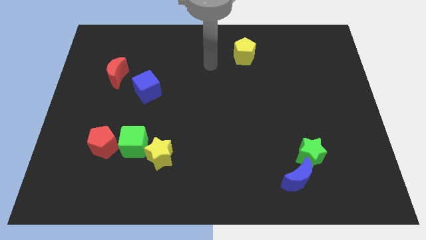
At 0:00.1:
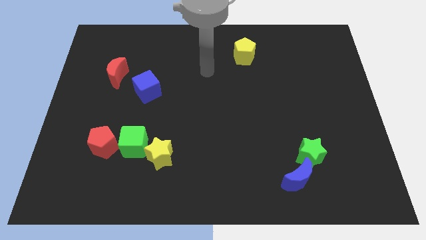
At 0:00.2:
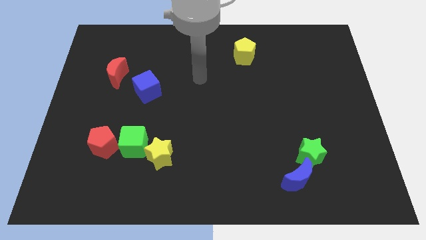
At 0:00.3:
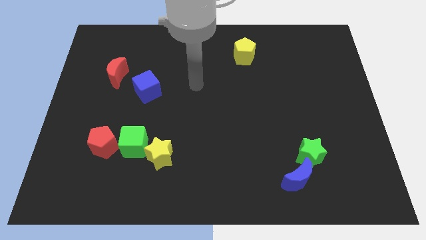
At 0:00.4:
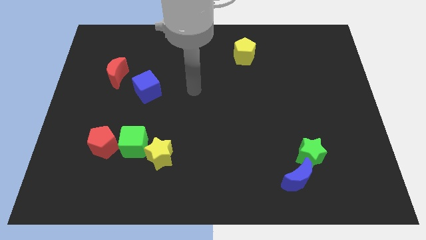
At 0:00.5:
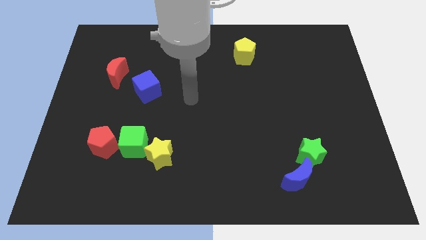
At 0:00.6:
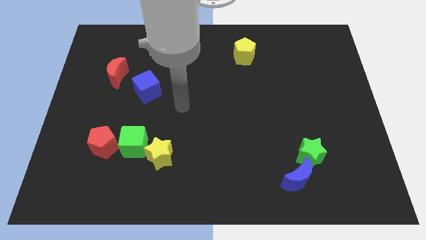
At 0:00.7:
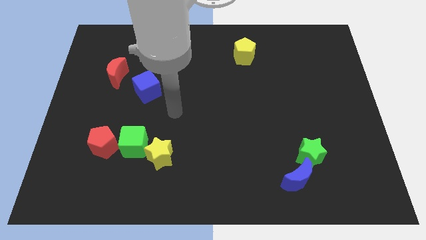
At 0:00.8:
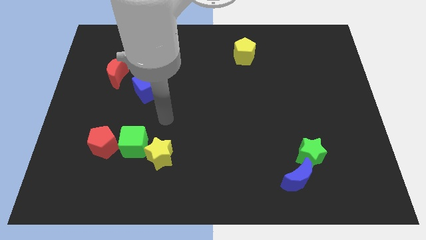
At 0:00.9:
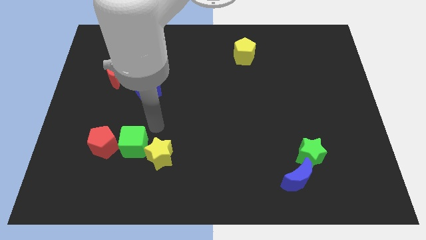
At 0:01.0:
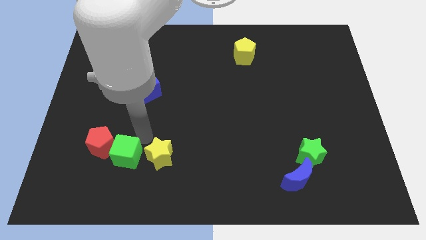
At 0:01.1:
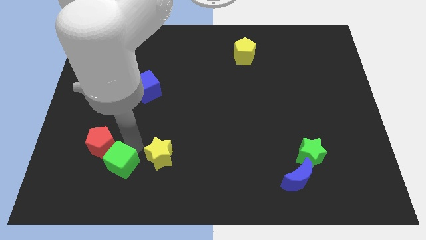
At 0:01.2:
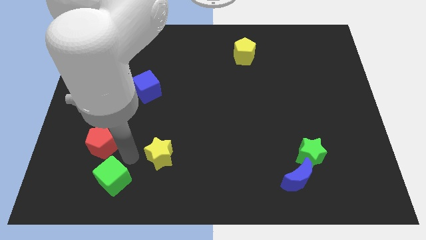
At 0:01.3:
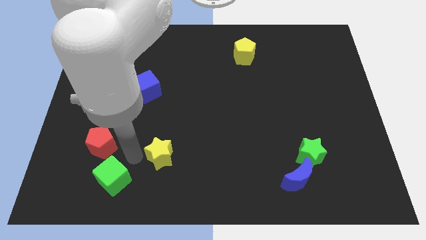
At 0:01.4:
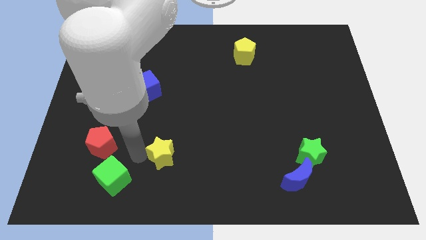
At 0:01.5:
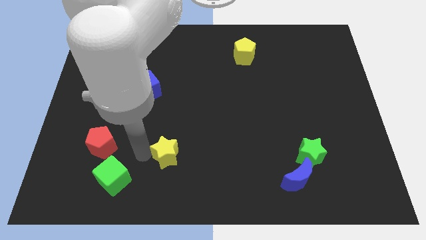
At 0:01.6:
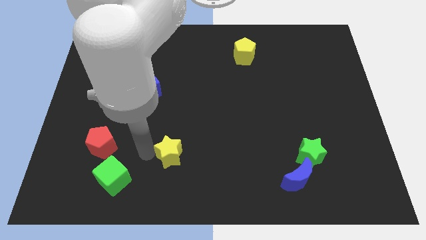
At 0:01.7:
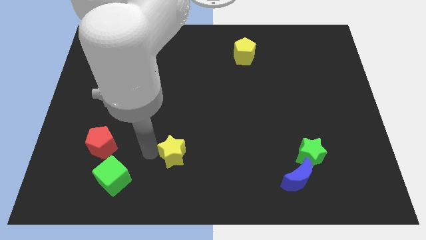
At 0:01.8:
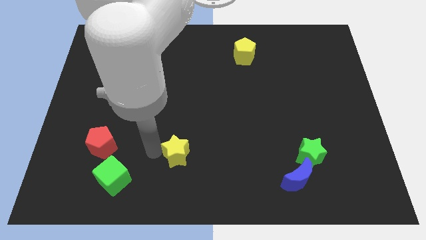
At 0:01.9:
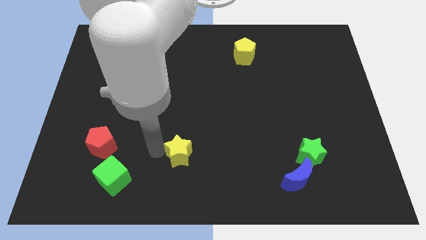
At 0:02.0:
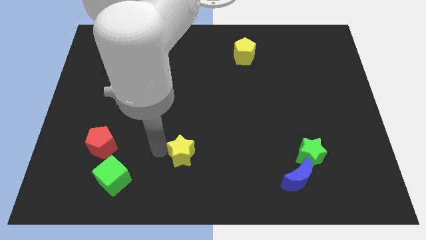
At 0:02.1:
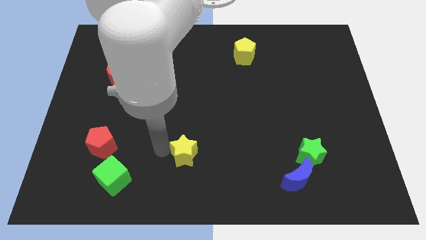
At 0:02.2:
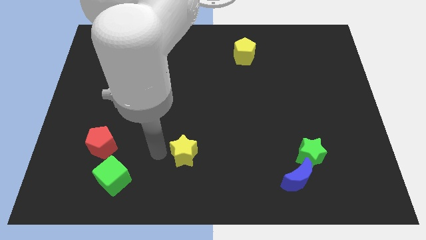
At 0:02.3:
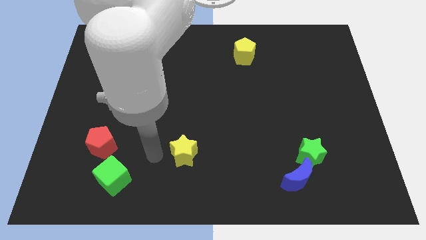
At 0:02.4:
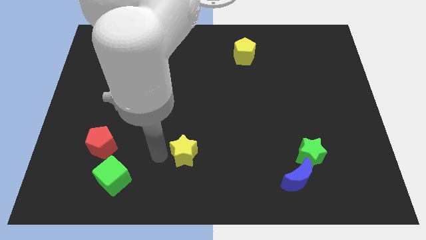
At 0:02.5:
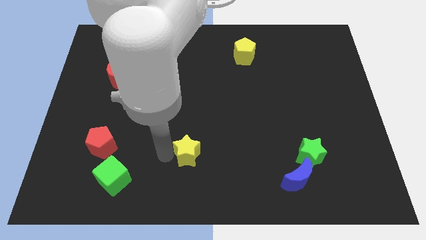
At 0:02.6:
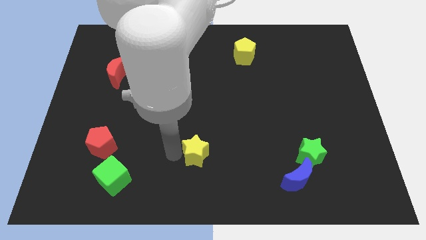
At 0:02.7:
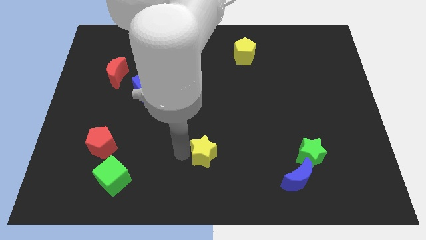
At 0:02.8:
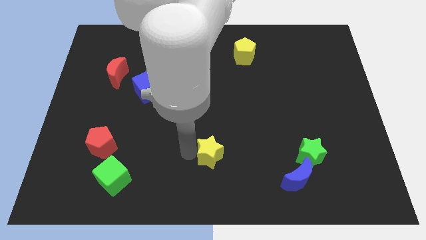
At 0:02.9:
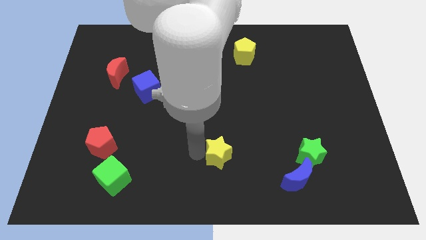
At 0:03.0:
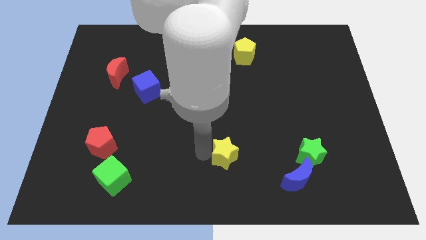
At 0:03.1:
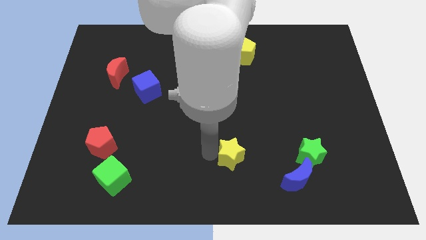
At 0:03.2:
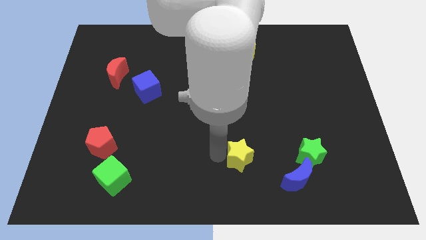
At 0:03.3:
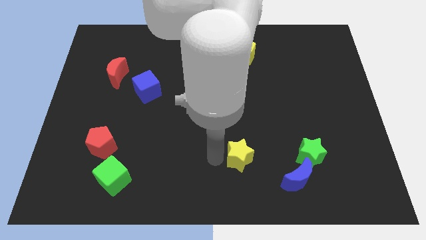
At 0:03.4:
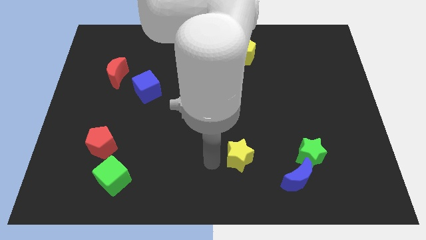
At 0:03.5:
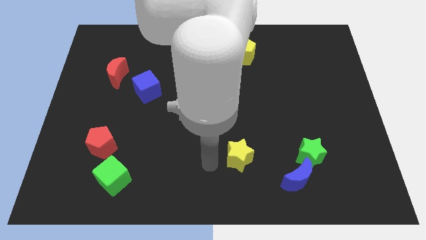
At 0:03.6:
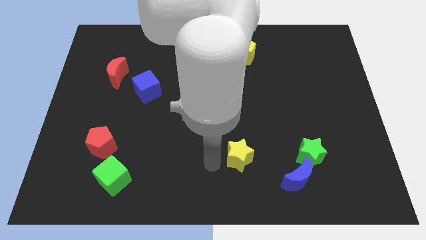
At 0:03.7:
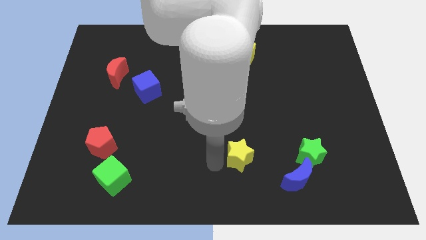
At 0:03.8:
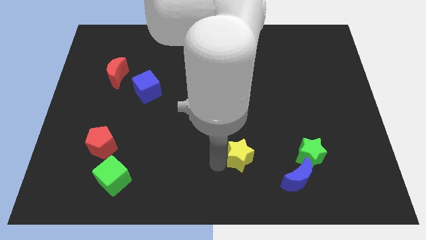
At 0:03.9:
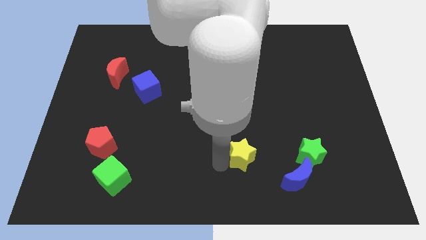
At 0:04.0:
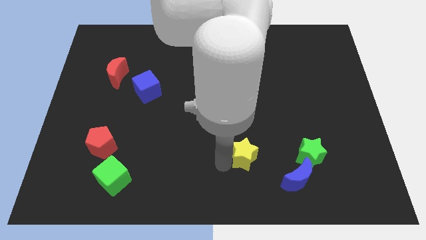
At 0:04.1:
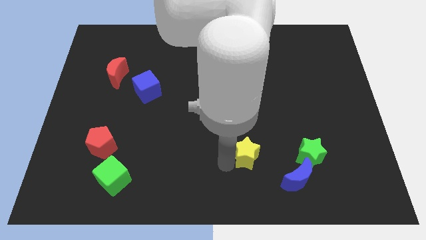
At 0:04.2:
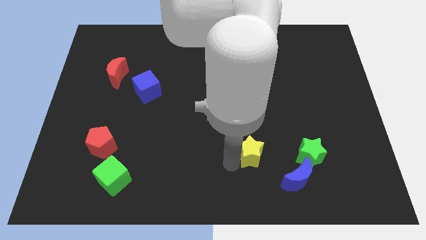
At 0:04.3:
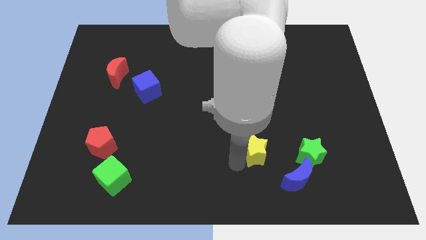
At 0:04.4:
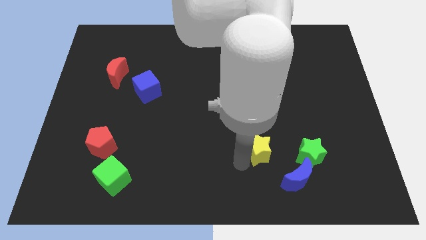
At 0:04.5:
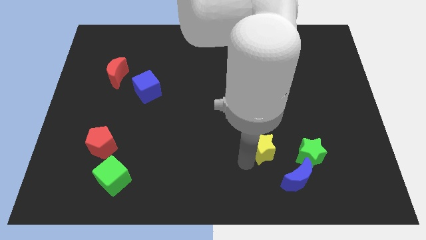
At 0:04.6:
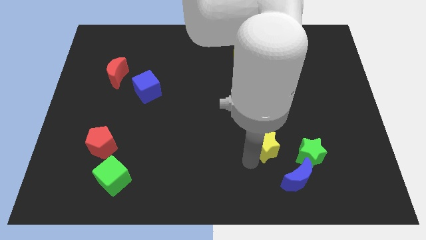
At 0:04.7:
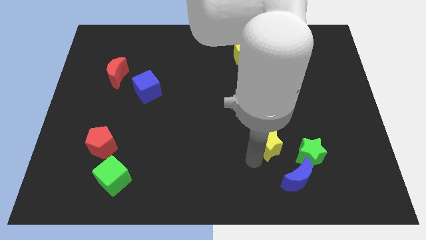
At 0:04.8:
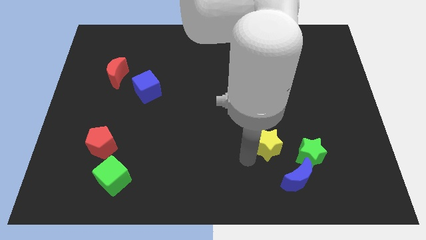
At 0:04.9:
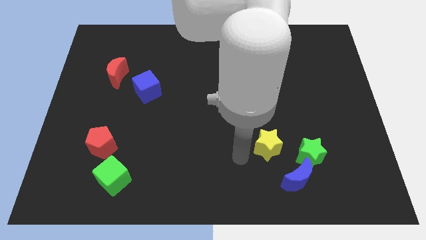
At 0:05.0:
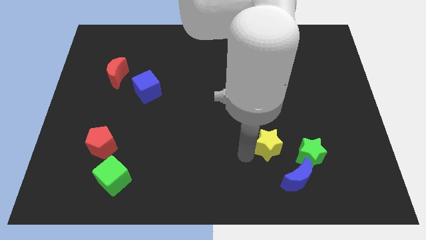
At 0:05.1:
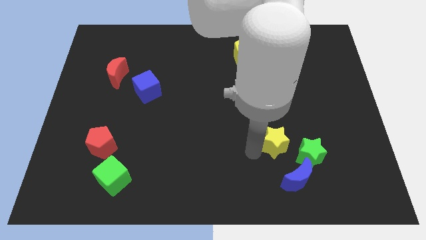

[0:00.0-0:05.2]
slide the yellow star to the top of the blue moon

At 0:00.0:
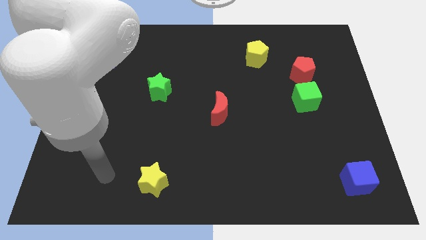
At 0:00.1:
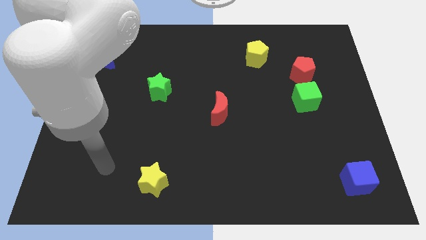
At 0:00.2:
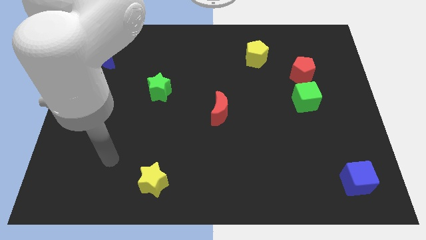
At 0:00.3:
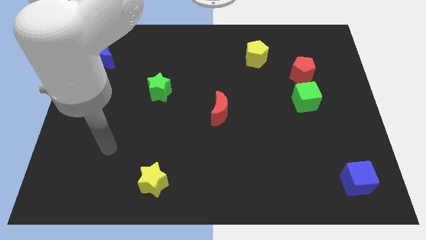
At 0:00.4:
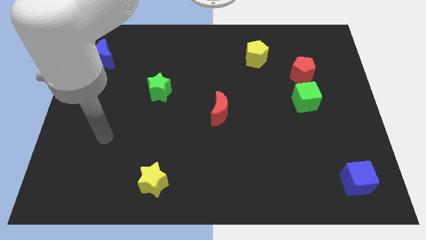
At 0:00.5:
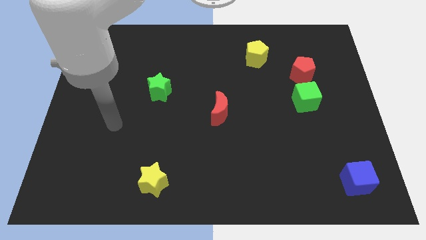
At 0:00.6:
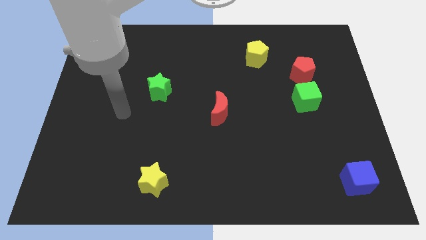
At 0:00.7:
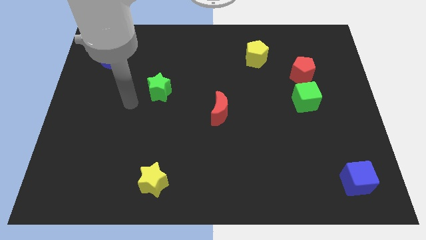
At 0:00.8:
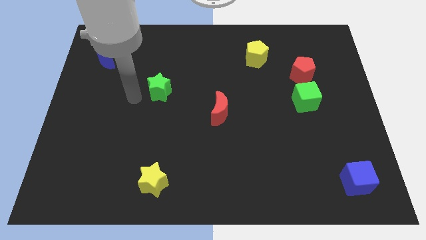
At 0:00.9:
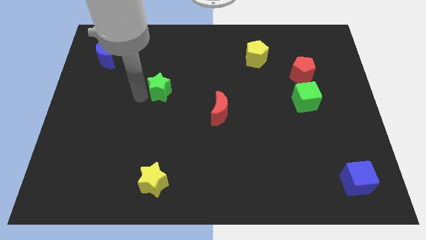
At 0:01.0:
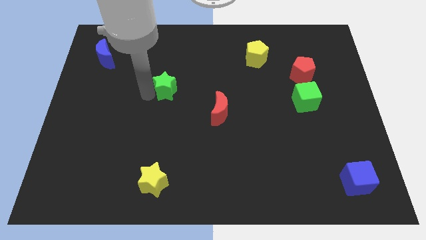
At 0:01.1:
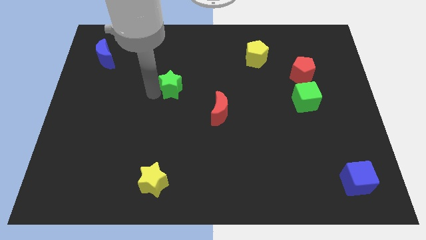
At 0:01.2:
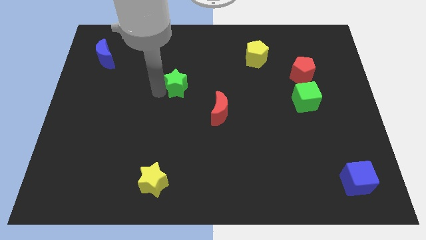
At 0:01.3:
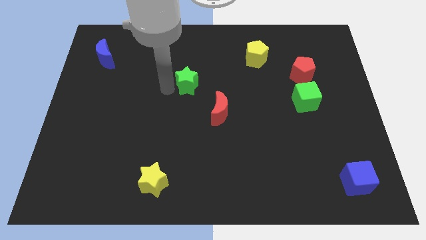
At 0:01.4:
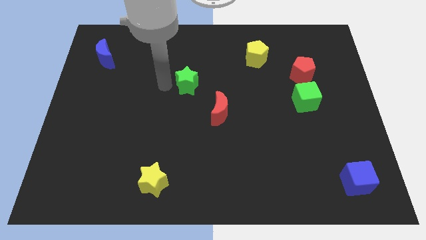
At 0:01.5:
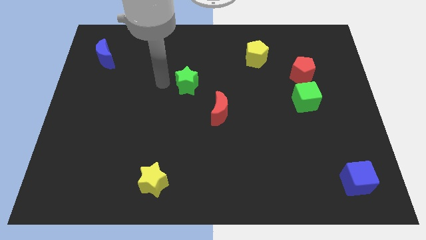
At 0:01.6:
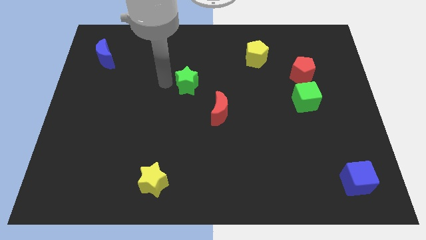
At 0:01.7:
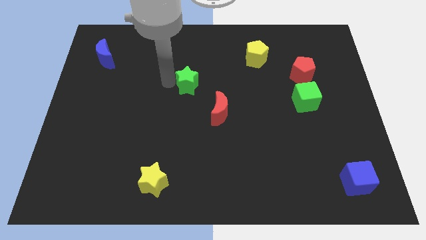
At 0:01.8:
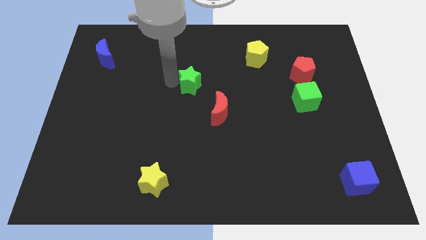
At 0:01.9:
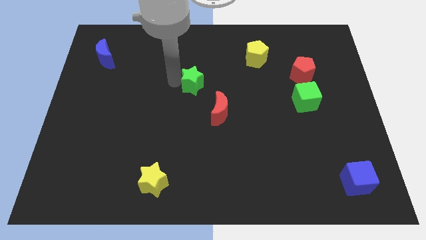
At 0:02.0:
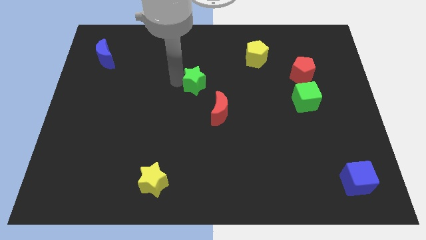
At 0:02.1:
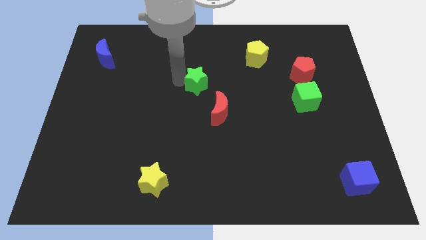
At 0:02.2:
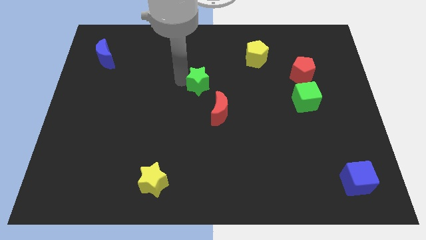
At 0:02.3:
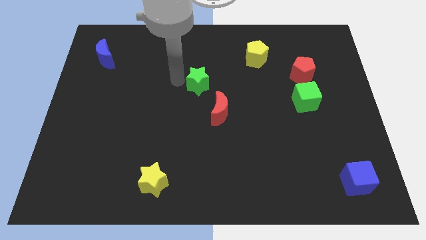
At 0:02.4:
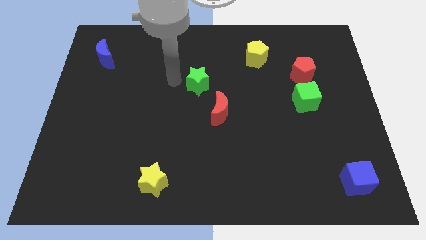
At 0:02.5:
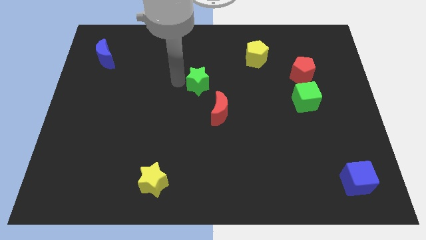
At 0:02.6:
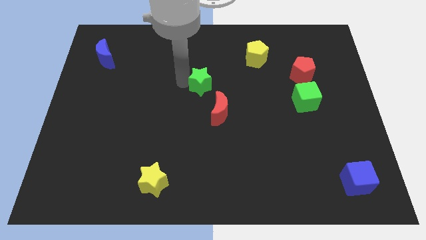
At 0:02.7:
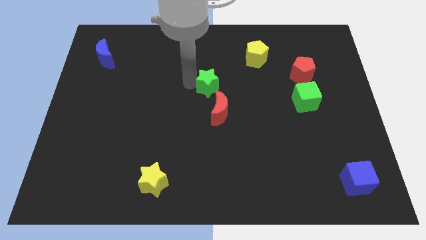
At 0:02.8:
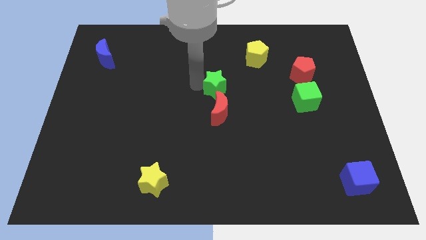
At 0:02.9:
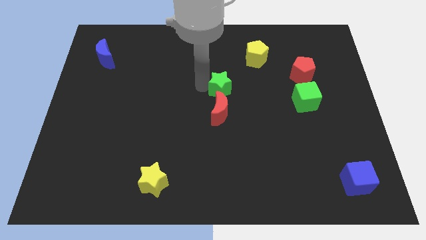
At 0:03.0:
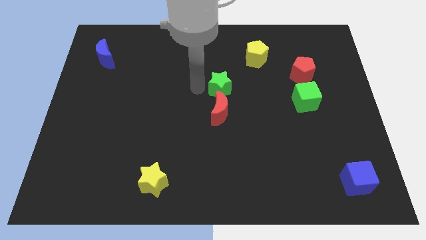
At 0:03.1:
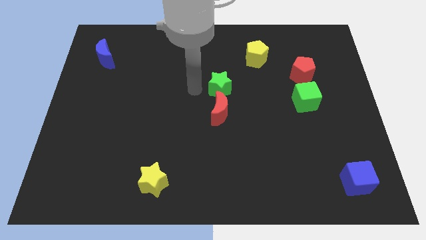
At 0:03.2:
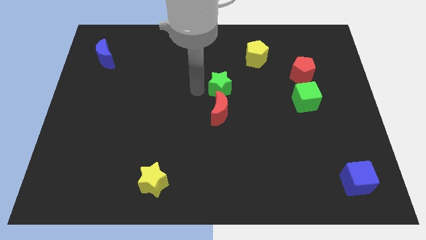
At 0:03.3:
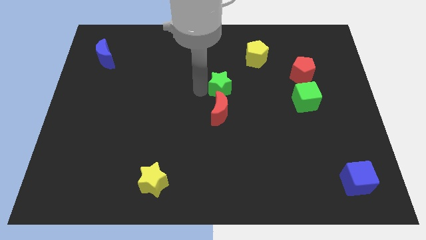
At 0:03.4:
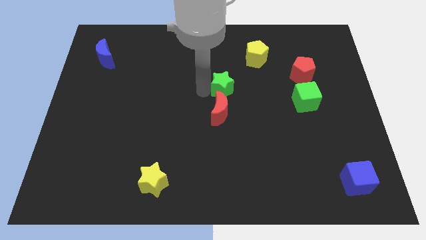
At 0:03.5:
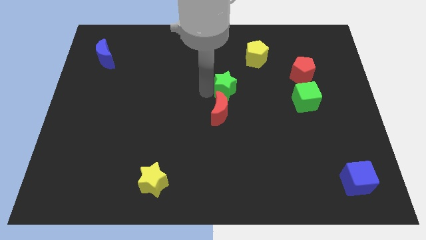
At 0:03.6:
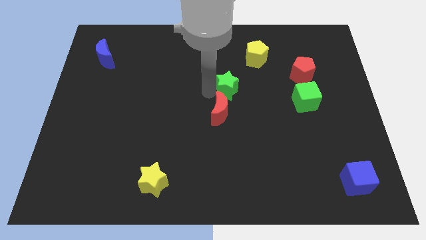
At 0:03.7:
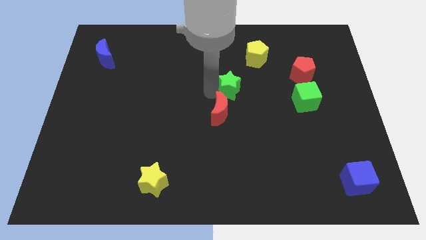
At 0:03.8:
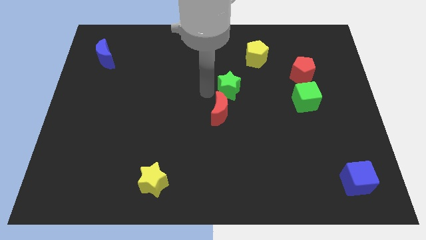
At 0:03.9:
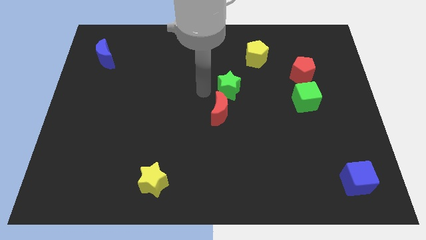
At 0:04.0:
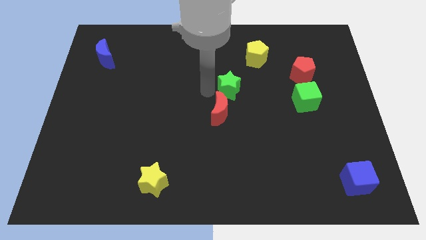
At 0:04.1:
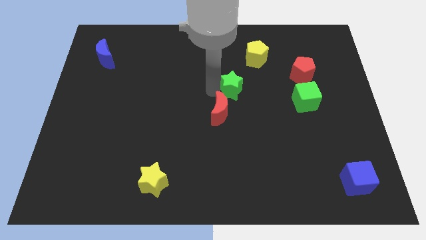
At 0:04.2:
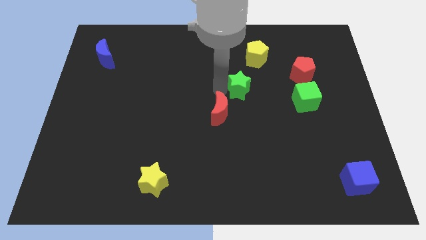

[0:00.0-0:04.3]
slide the green star below the yellow pentagon
